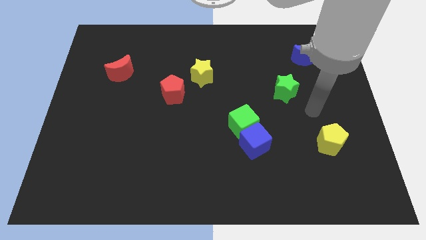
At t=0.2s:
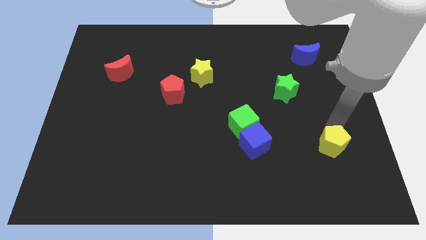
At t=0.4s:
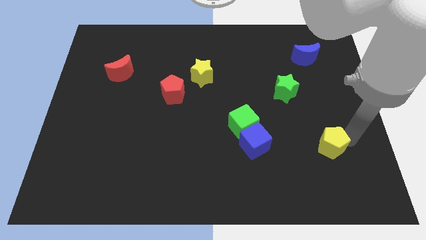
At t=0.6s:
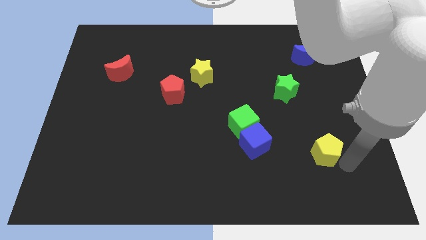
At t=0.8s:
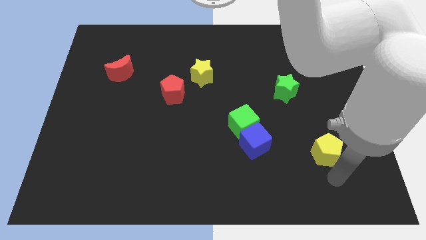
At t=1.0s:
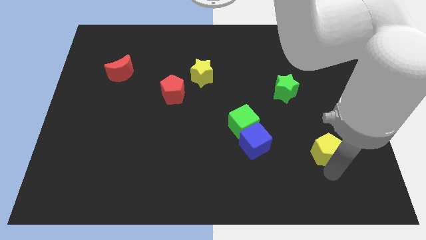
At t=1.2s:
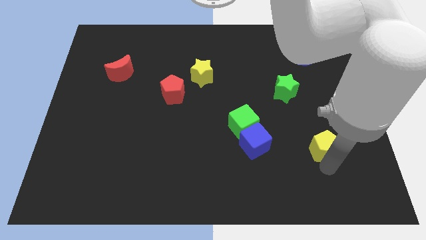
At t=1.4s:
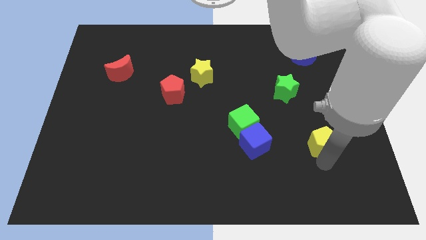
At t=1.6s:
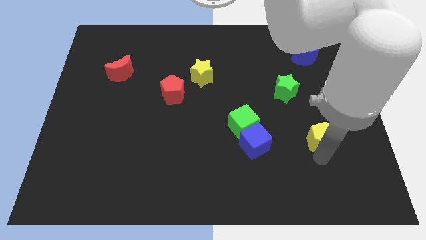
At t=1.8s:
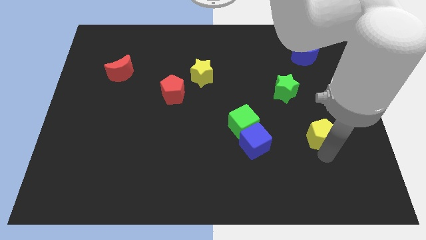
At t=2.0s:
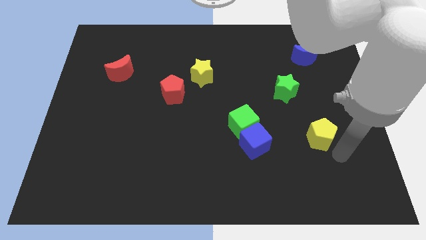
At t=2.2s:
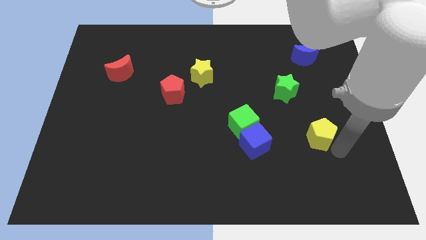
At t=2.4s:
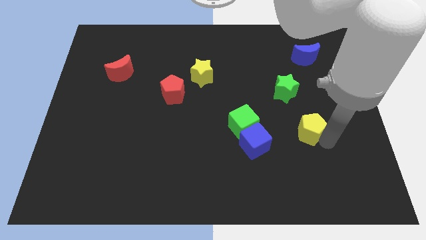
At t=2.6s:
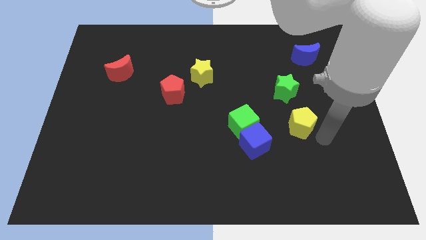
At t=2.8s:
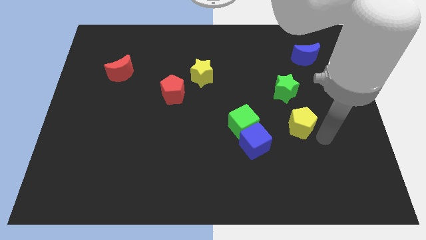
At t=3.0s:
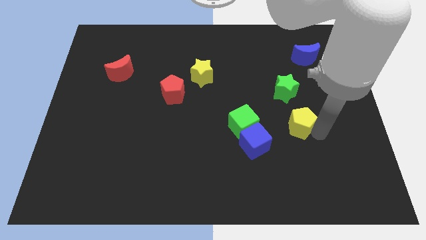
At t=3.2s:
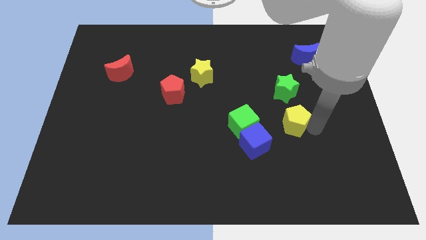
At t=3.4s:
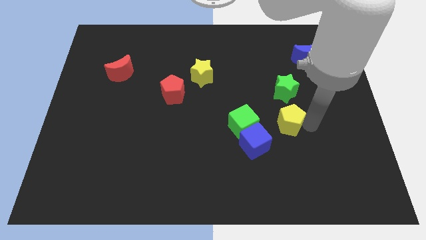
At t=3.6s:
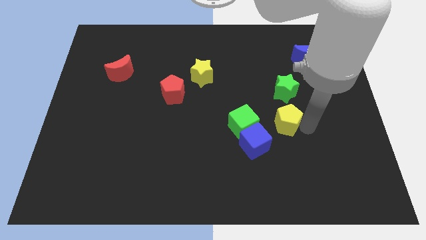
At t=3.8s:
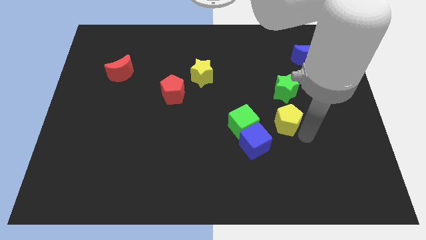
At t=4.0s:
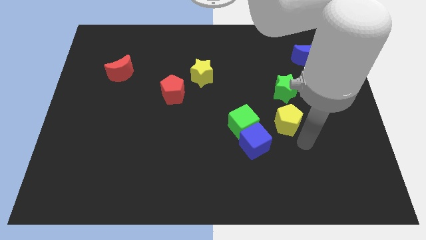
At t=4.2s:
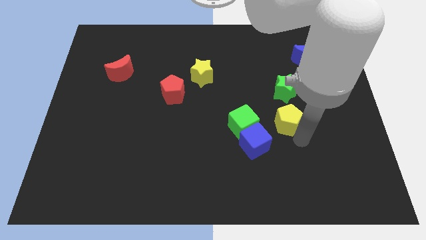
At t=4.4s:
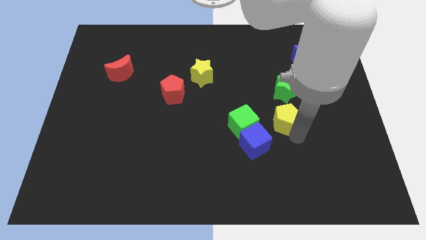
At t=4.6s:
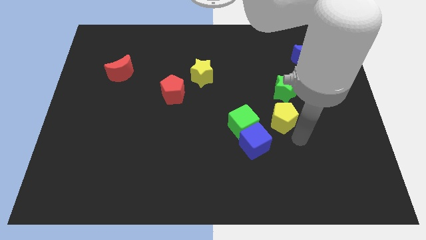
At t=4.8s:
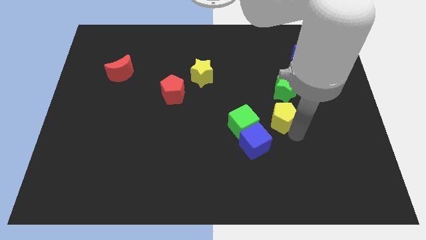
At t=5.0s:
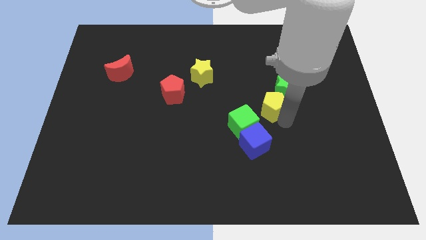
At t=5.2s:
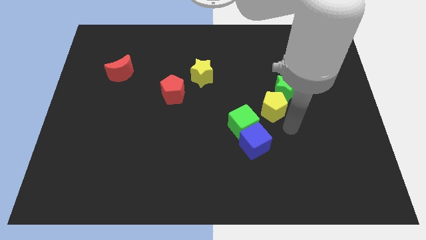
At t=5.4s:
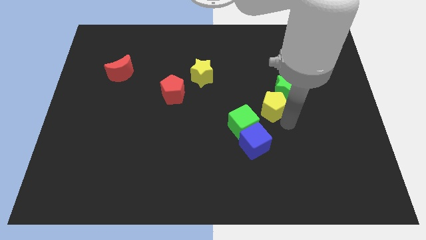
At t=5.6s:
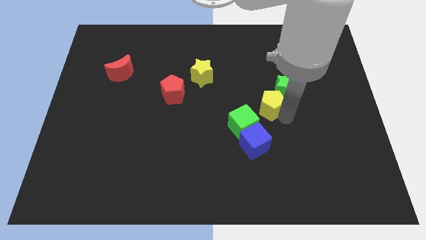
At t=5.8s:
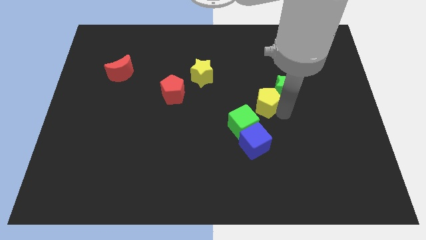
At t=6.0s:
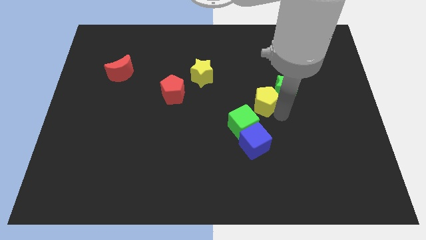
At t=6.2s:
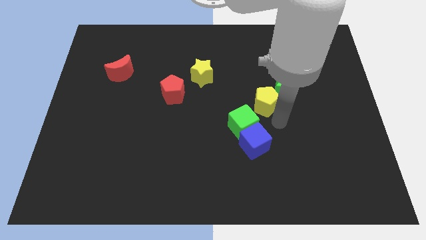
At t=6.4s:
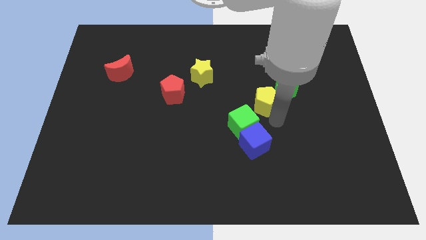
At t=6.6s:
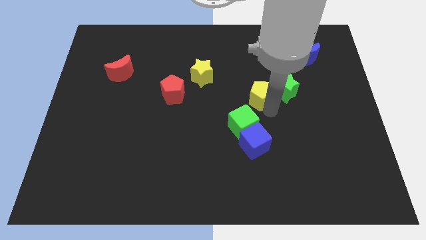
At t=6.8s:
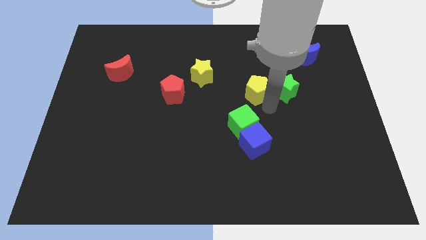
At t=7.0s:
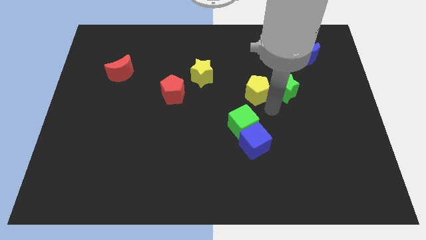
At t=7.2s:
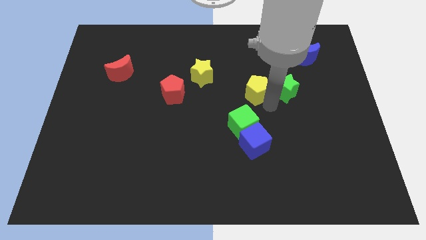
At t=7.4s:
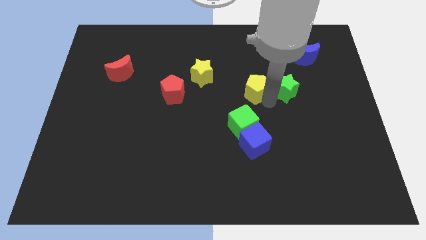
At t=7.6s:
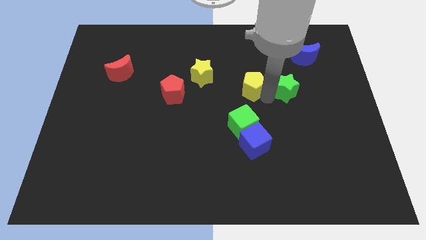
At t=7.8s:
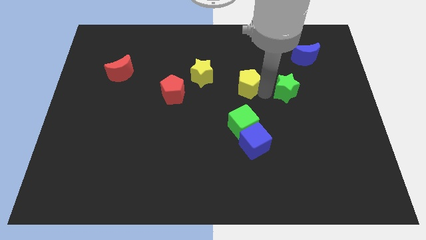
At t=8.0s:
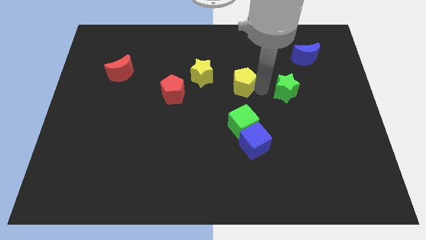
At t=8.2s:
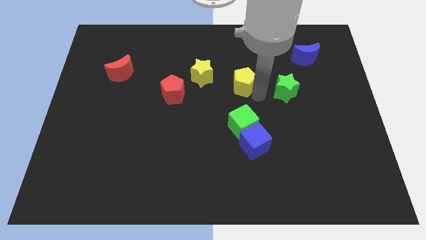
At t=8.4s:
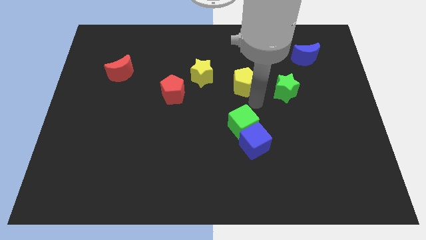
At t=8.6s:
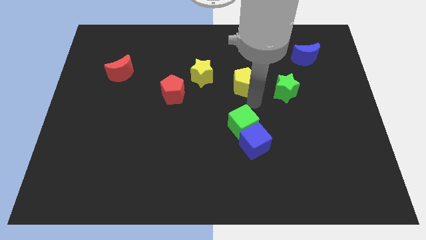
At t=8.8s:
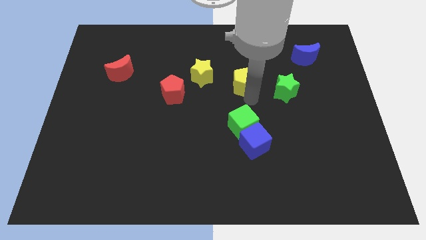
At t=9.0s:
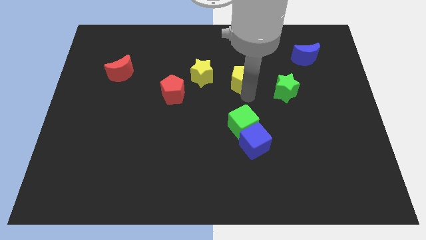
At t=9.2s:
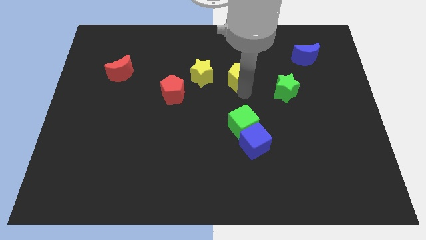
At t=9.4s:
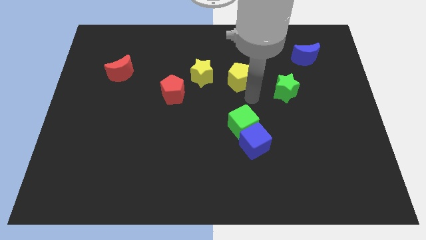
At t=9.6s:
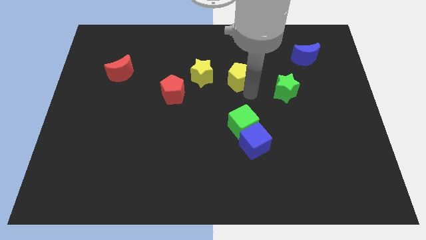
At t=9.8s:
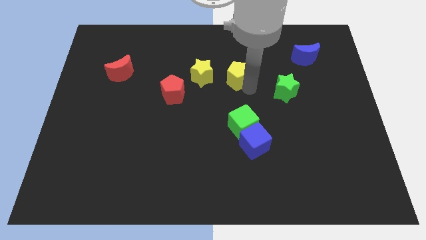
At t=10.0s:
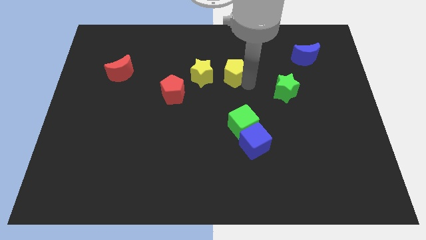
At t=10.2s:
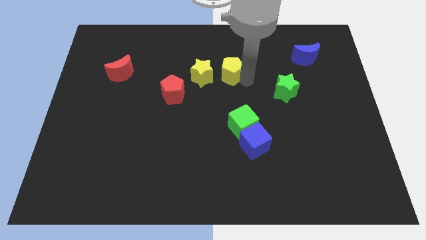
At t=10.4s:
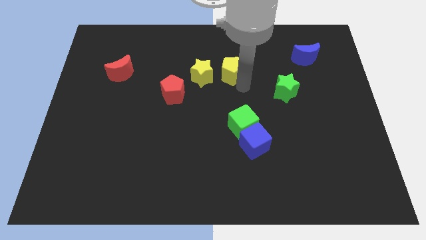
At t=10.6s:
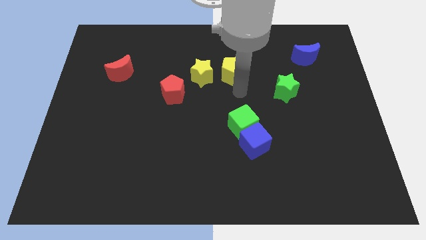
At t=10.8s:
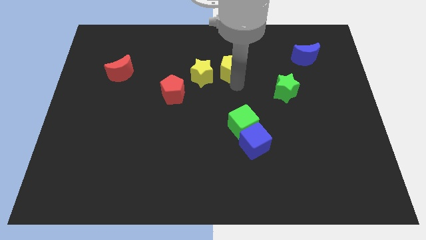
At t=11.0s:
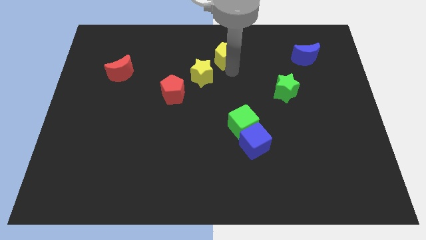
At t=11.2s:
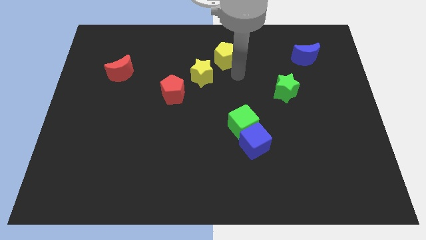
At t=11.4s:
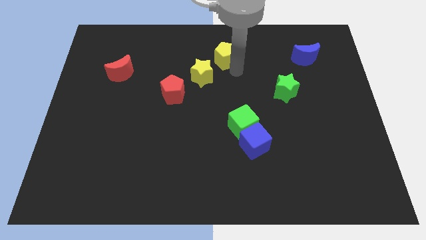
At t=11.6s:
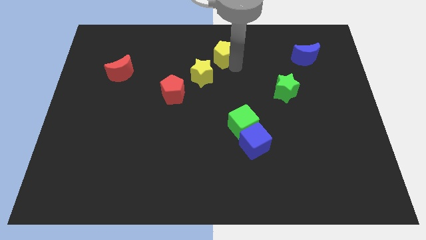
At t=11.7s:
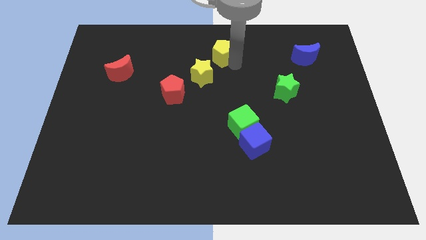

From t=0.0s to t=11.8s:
move the yellow pentagon to the top side
